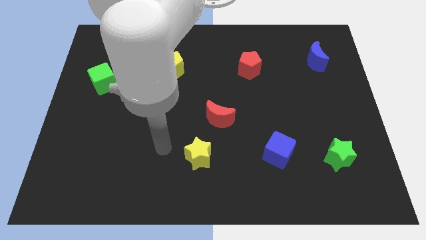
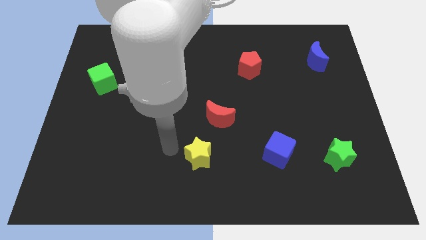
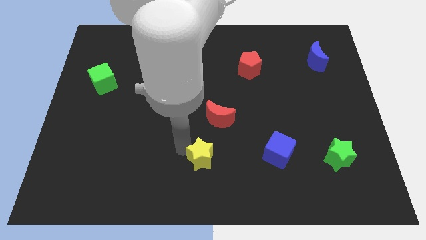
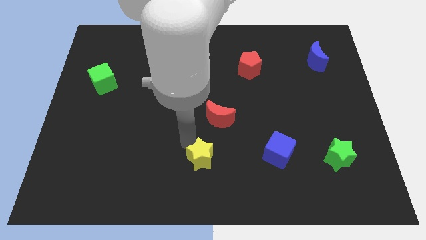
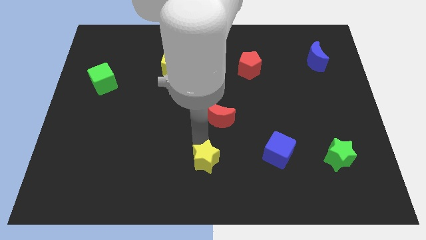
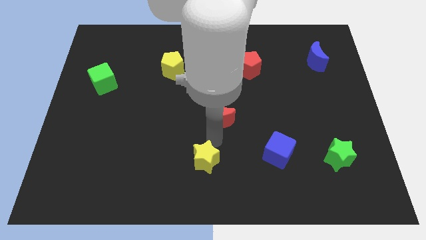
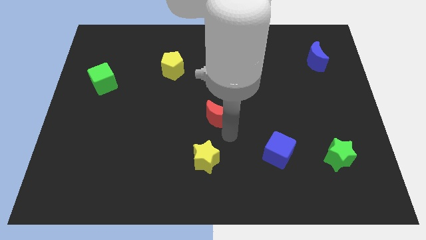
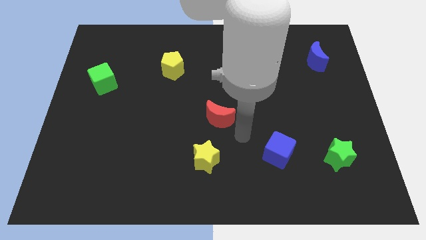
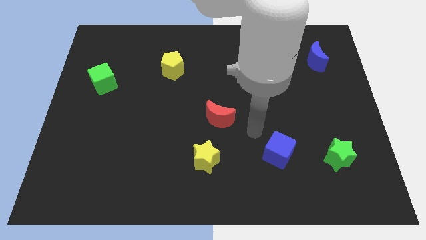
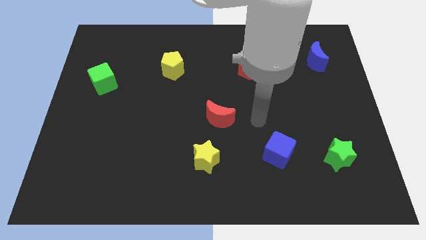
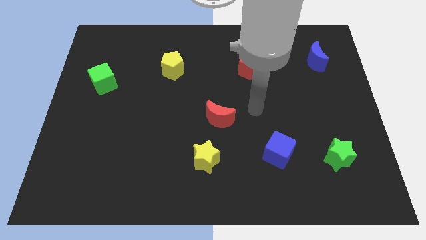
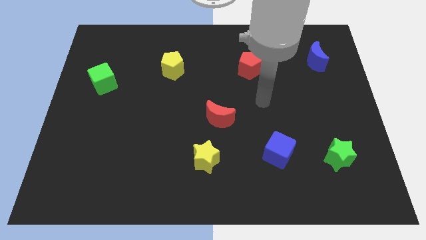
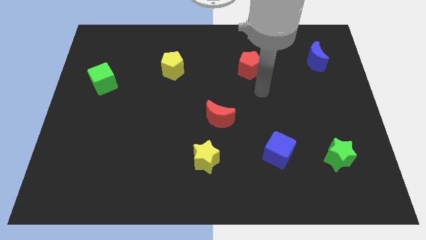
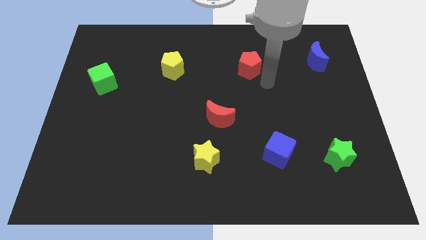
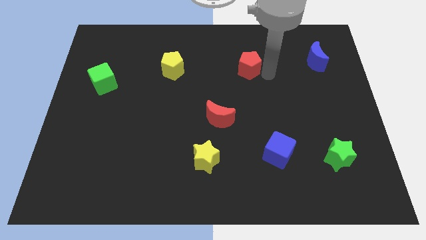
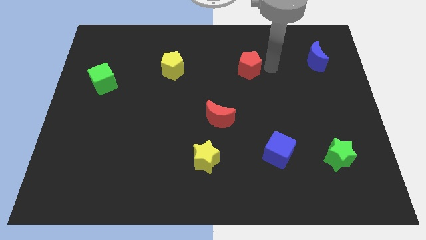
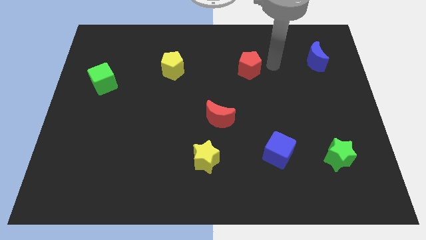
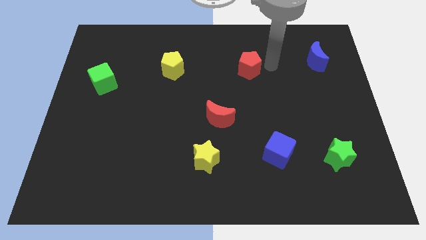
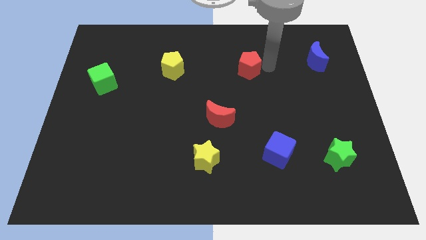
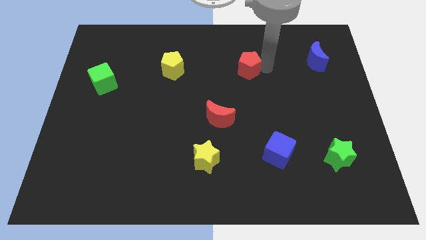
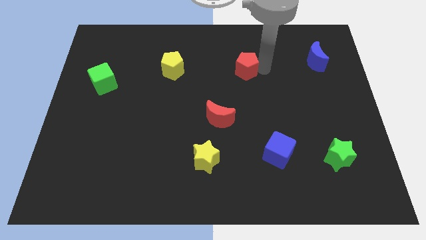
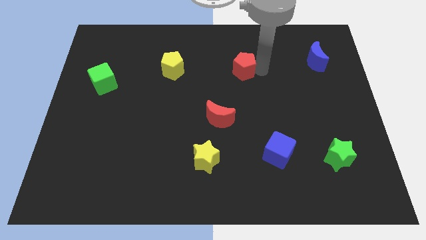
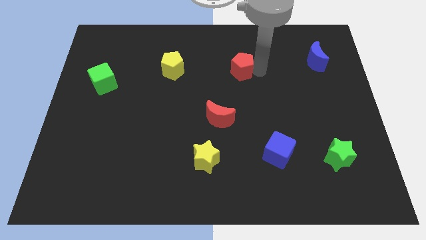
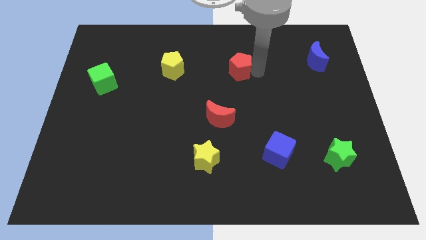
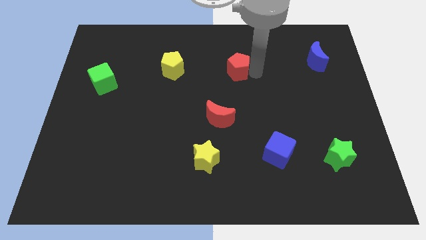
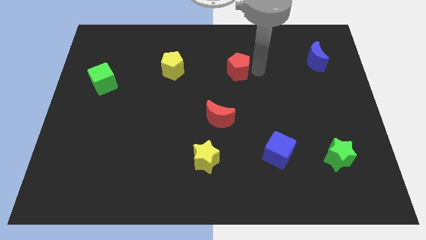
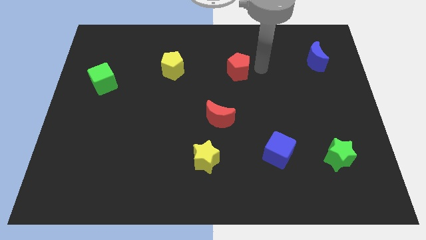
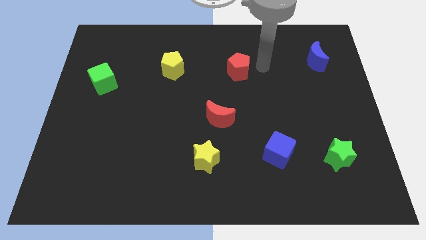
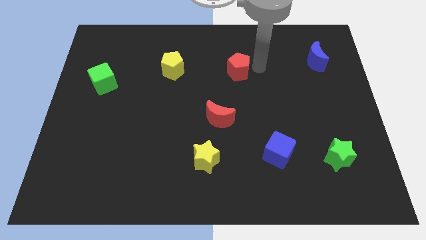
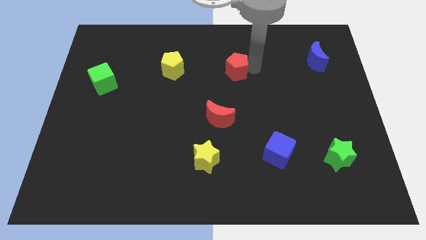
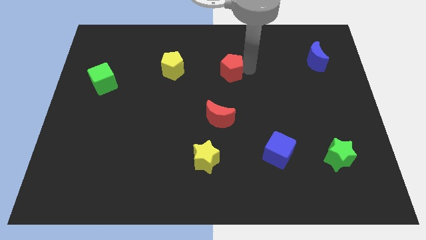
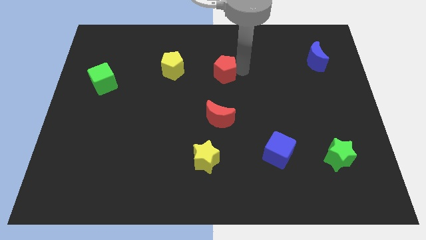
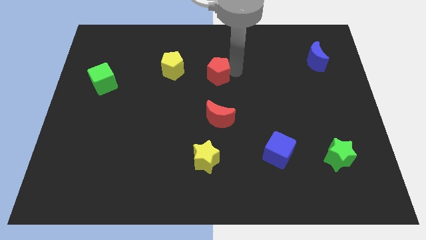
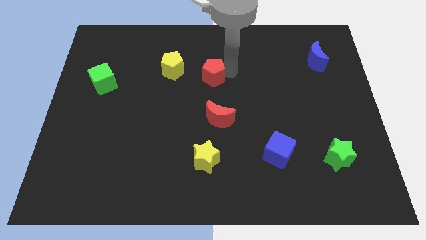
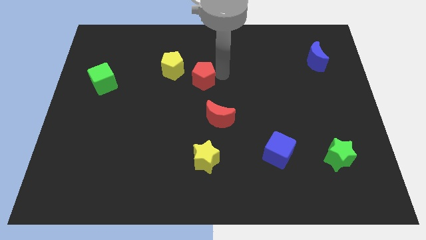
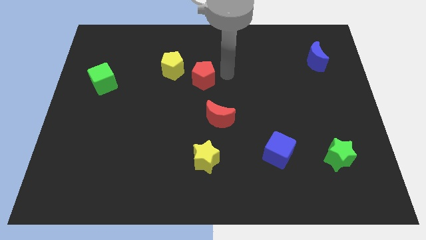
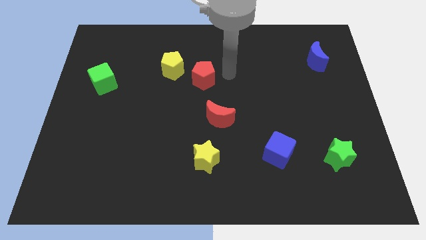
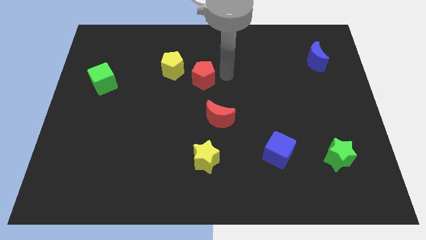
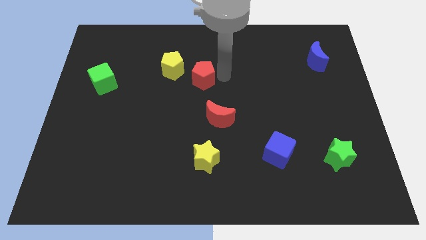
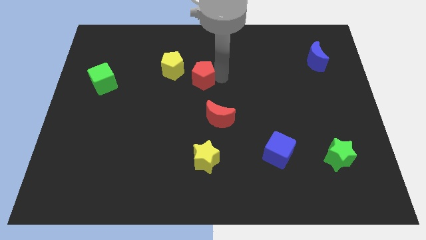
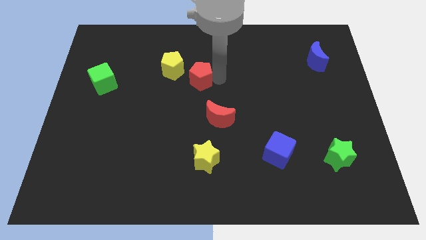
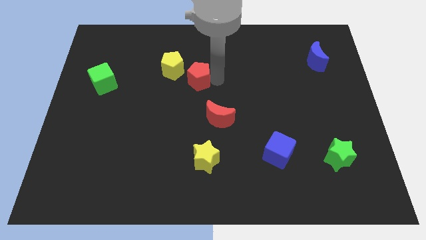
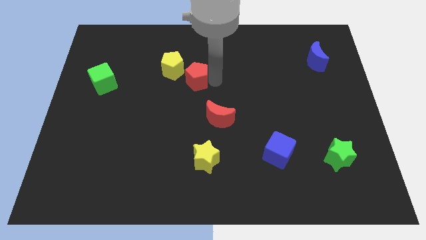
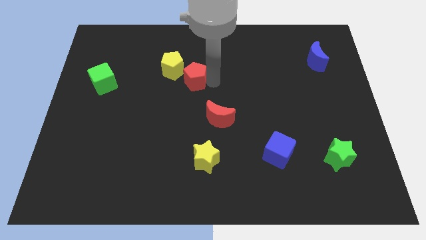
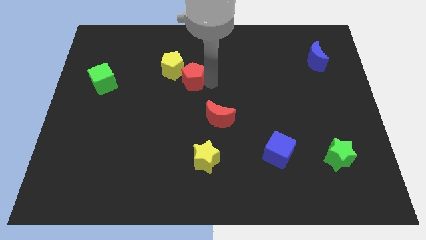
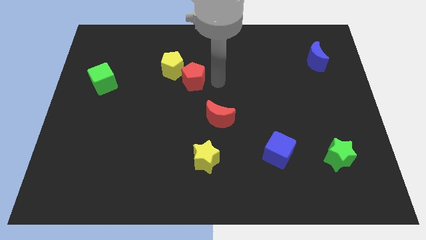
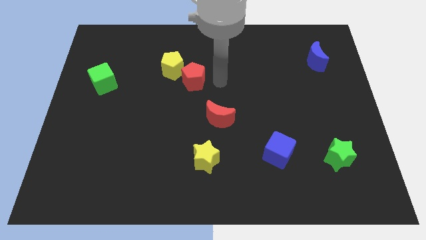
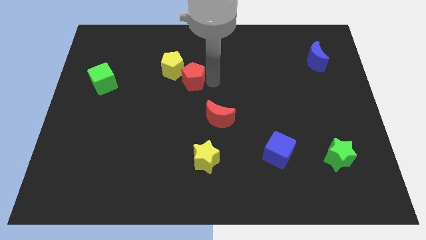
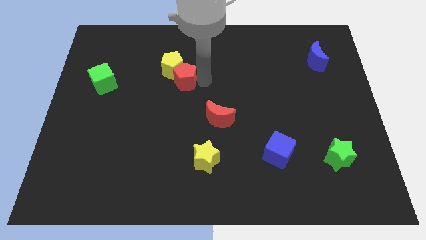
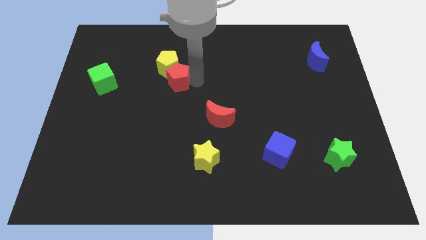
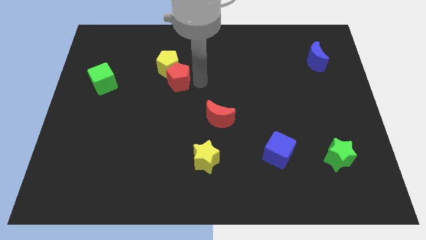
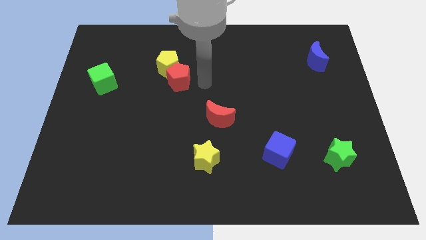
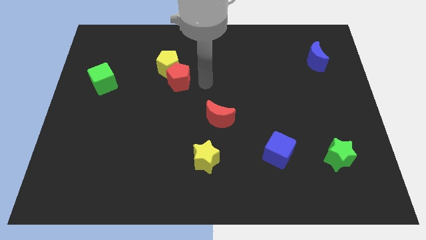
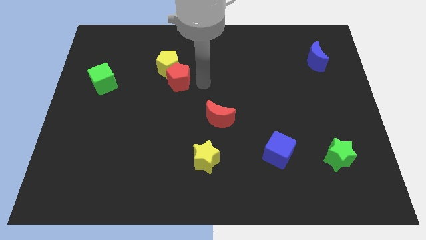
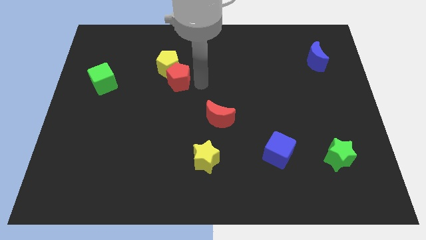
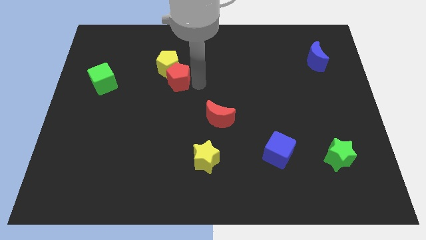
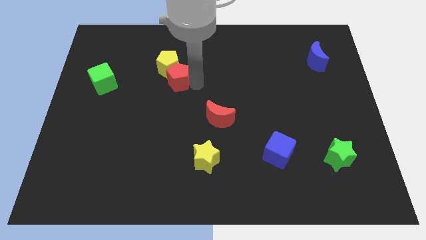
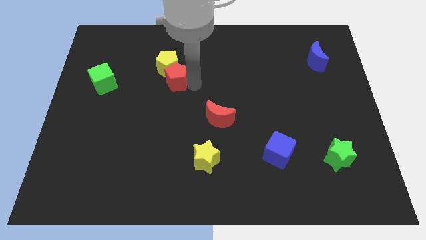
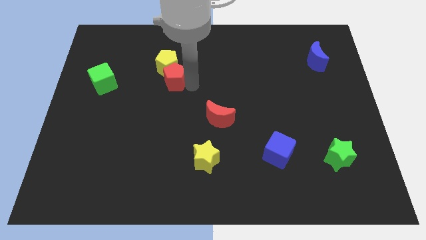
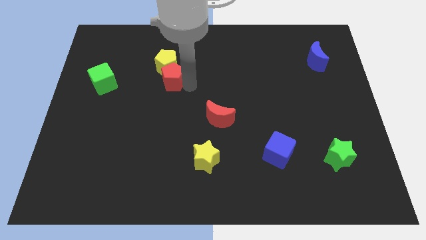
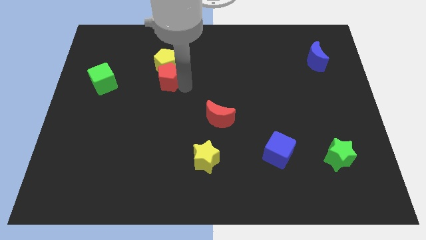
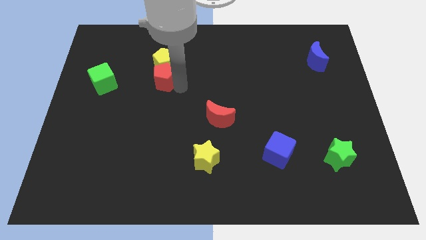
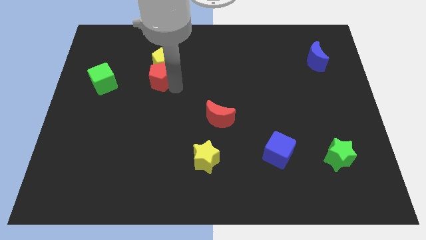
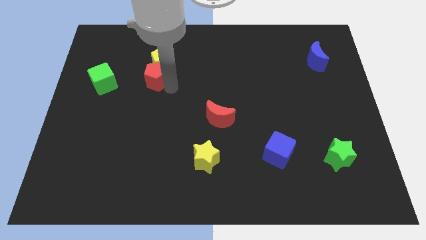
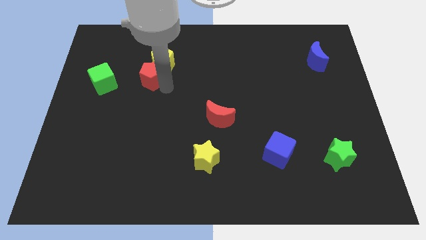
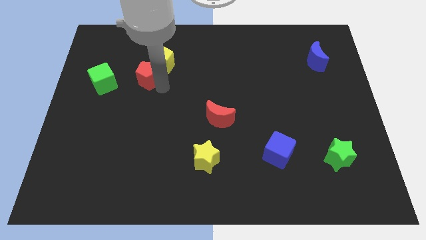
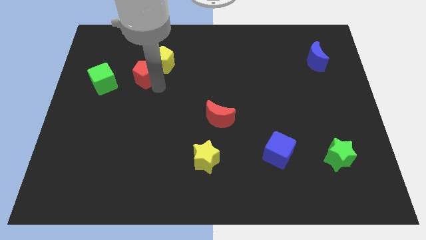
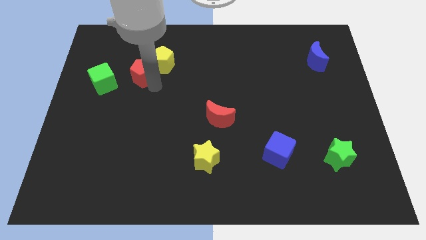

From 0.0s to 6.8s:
move the red pentagon to the left of the yellow pentagon

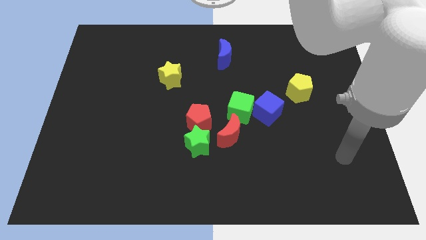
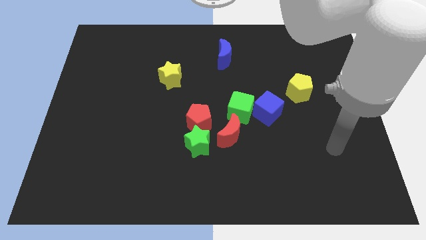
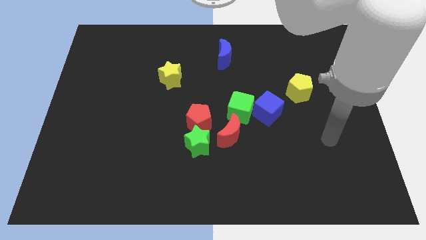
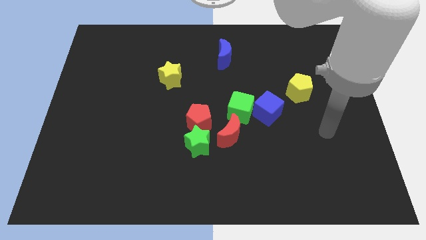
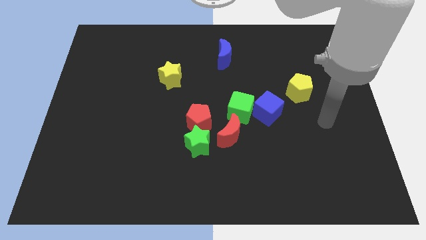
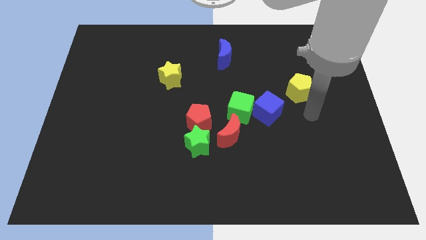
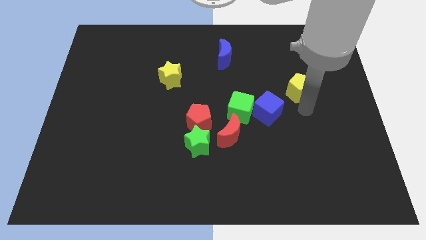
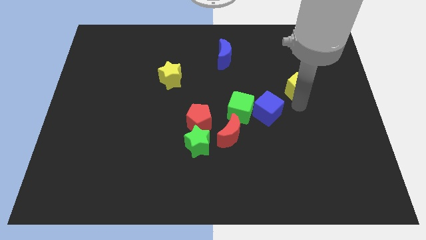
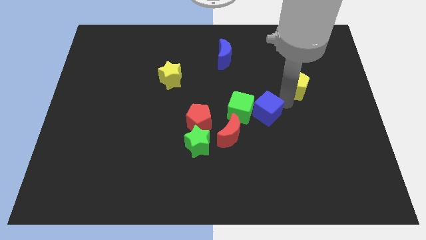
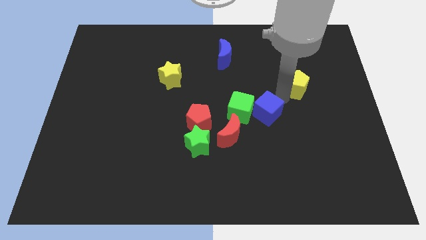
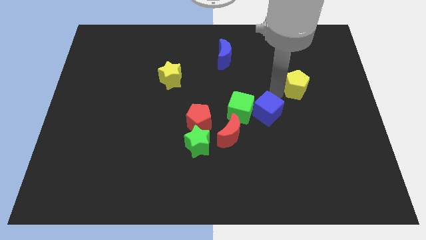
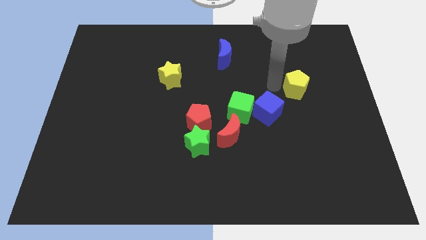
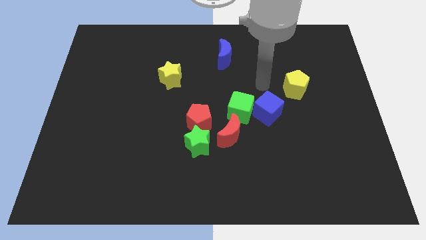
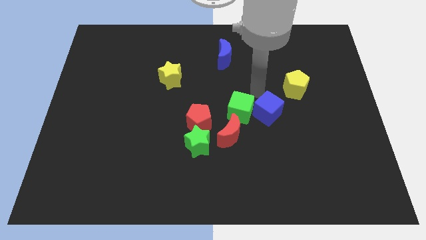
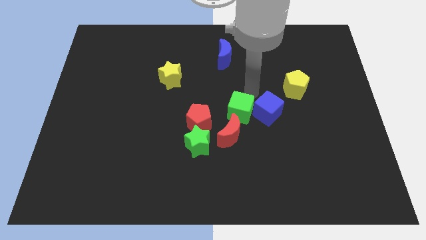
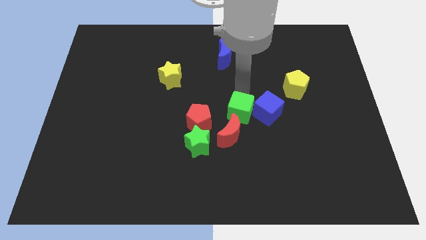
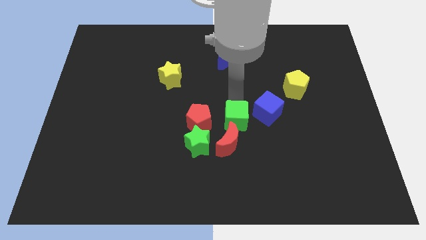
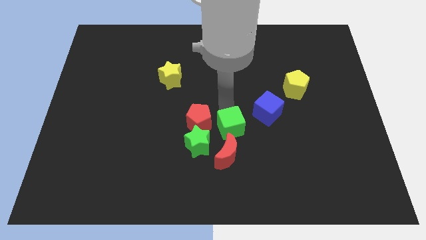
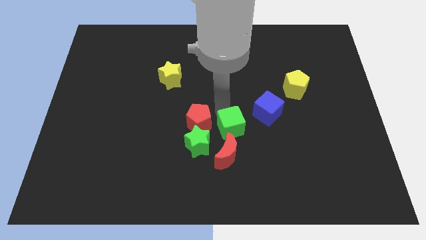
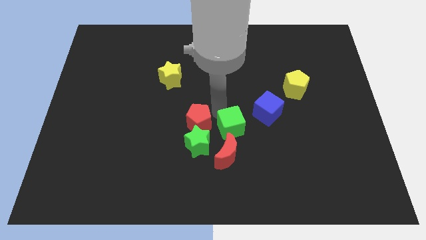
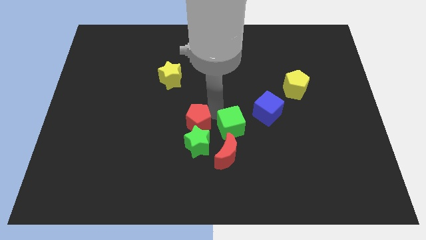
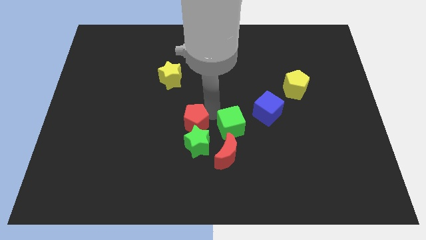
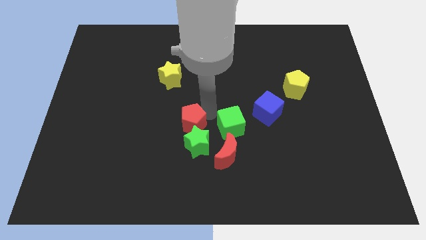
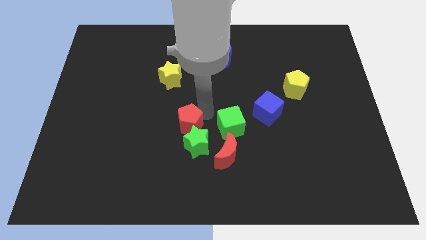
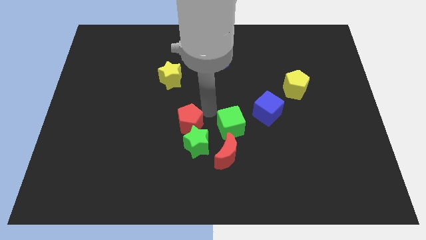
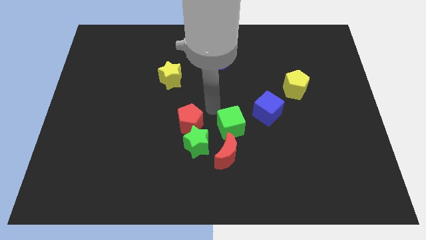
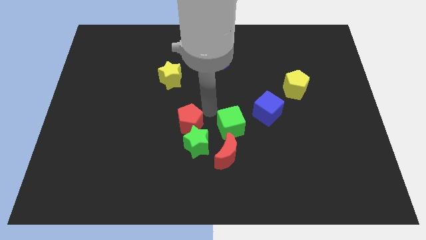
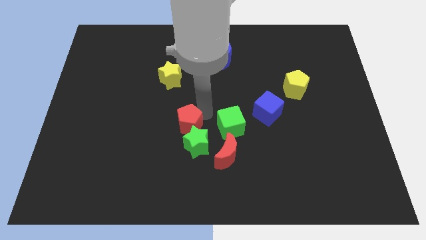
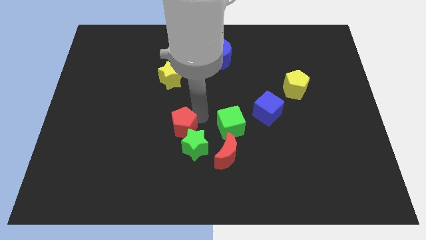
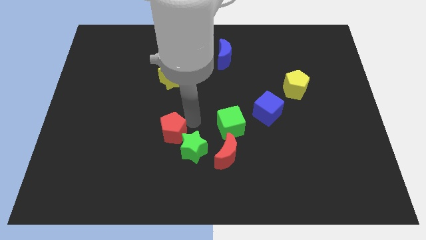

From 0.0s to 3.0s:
push the red pentagon to the left side of the green star
